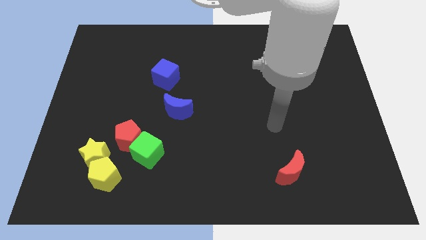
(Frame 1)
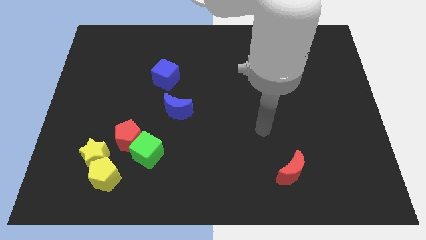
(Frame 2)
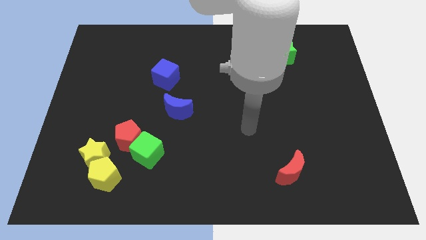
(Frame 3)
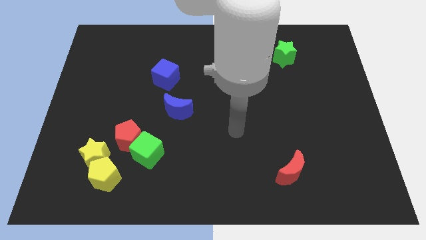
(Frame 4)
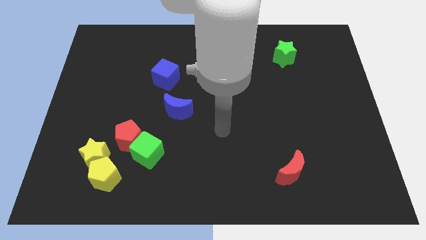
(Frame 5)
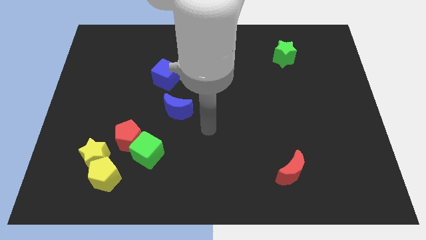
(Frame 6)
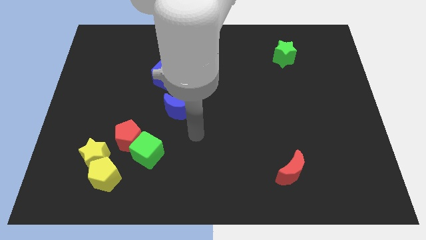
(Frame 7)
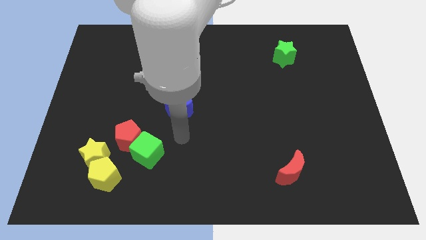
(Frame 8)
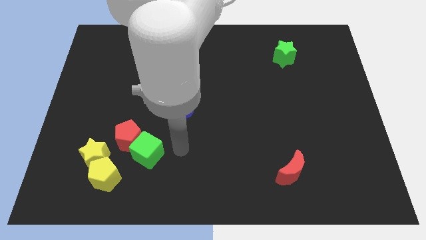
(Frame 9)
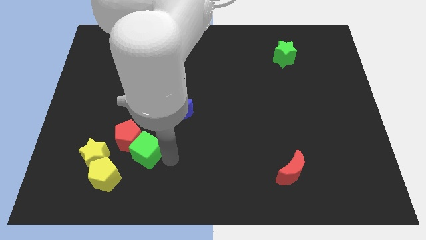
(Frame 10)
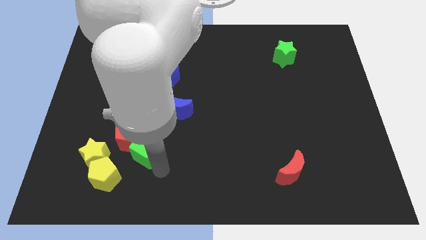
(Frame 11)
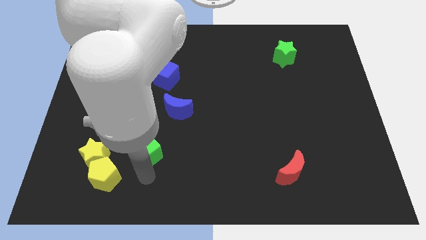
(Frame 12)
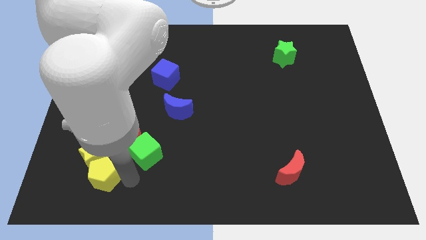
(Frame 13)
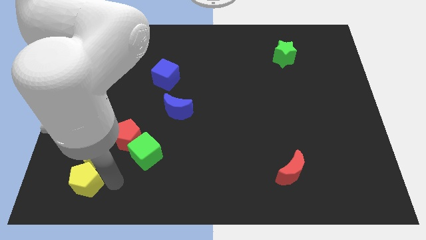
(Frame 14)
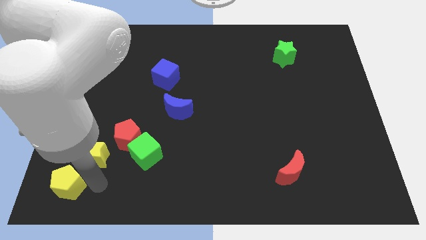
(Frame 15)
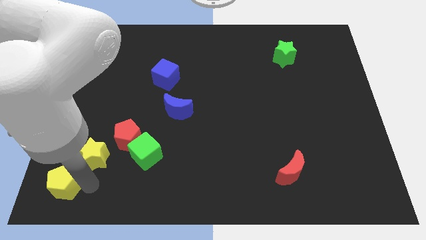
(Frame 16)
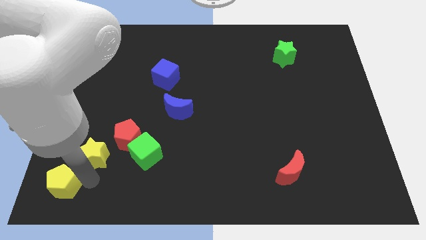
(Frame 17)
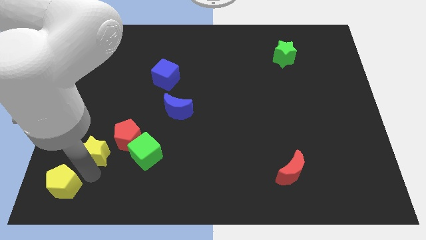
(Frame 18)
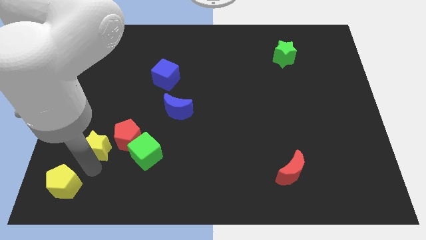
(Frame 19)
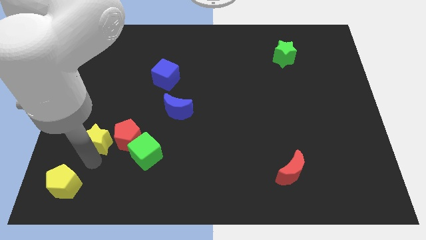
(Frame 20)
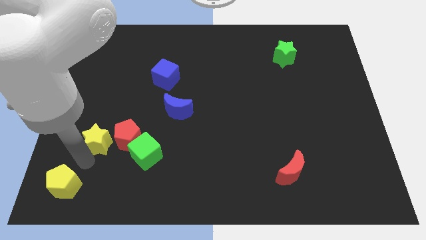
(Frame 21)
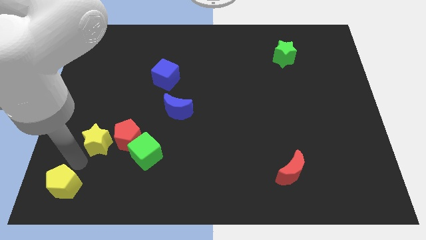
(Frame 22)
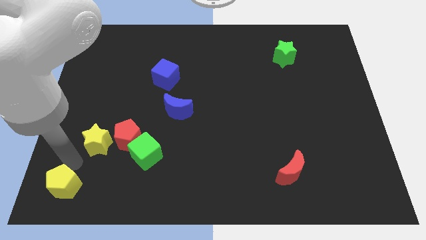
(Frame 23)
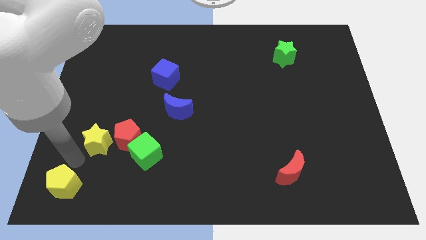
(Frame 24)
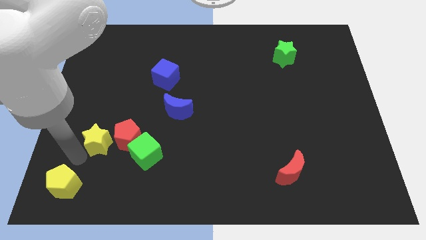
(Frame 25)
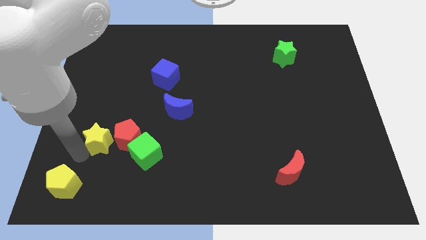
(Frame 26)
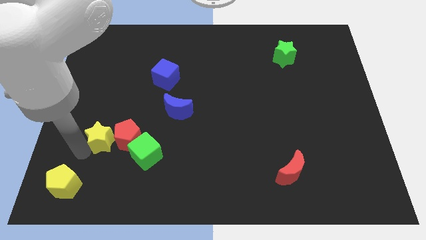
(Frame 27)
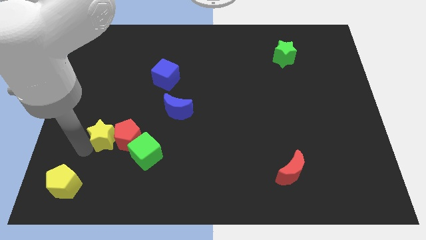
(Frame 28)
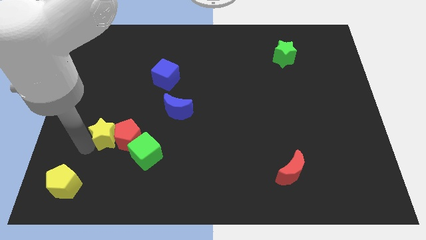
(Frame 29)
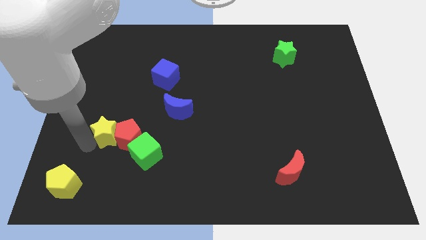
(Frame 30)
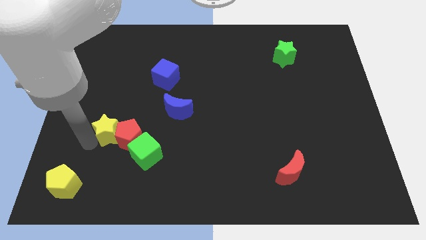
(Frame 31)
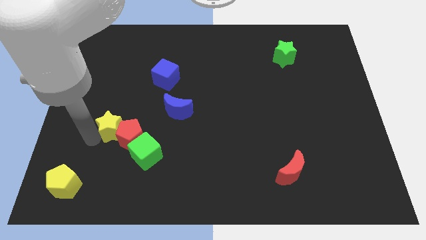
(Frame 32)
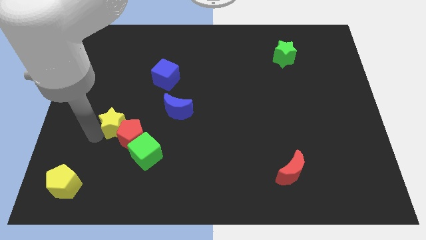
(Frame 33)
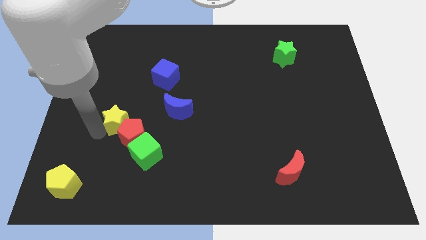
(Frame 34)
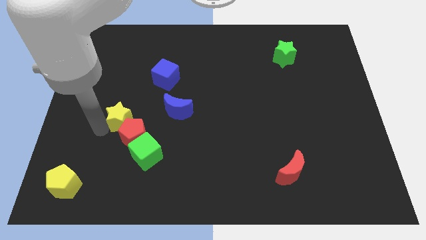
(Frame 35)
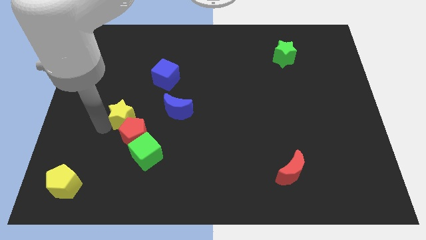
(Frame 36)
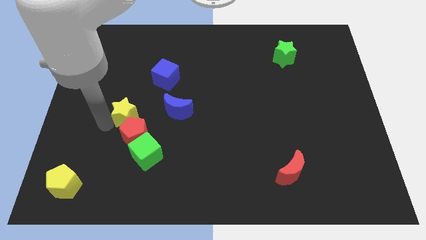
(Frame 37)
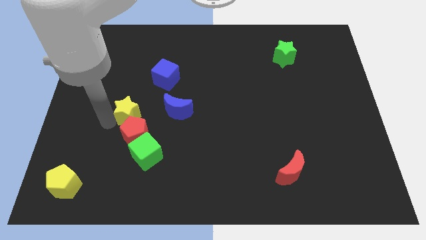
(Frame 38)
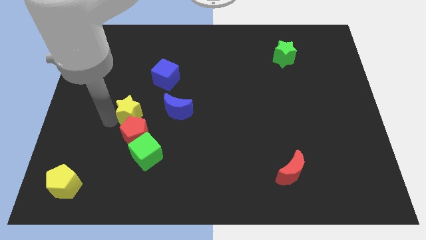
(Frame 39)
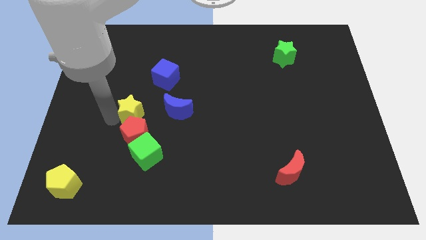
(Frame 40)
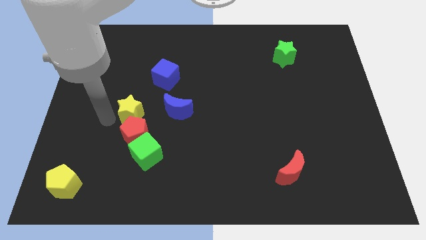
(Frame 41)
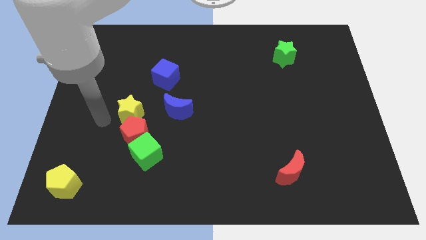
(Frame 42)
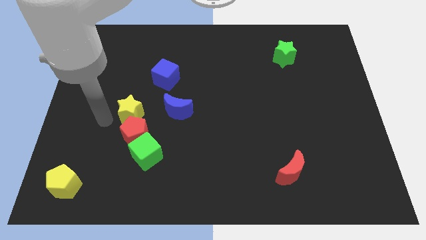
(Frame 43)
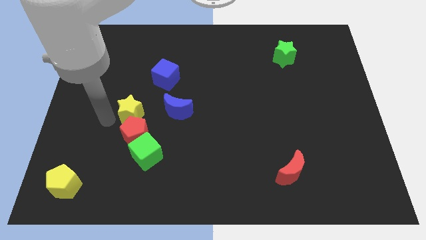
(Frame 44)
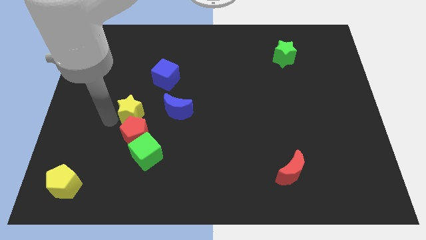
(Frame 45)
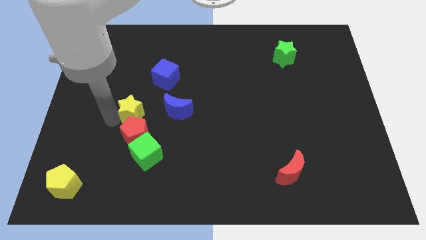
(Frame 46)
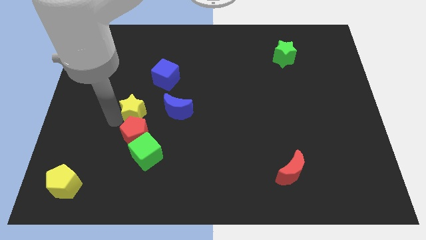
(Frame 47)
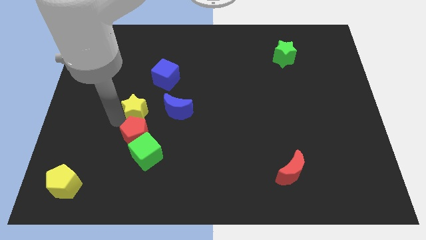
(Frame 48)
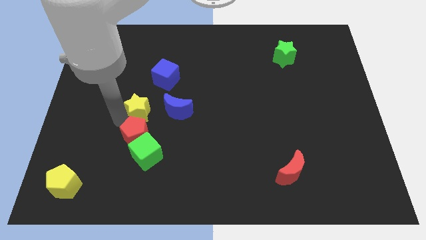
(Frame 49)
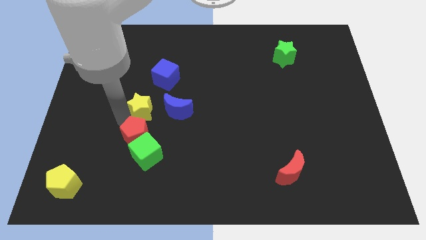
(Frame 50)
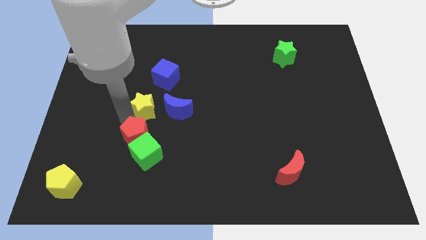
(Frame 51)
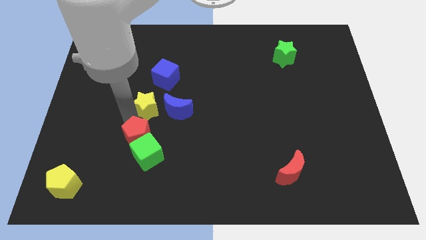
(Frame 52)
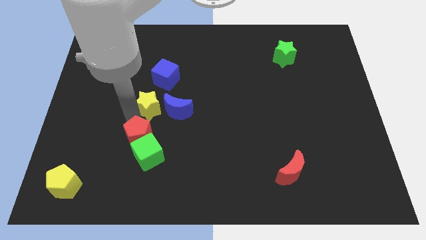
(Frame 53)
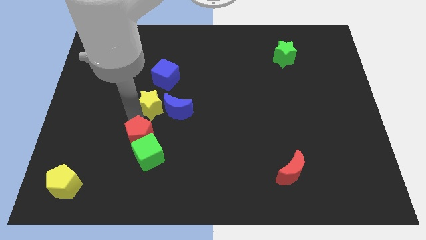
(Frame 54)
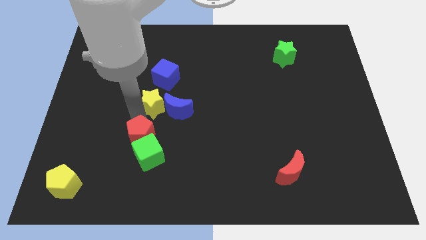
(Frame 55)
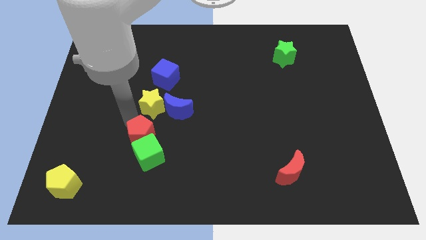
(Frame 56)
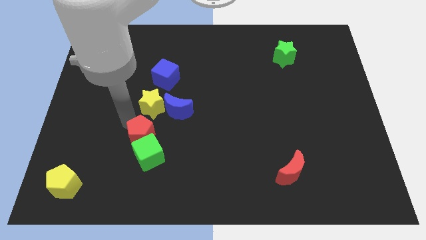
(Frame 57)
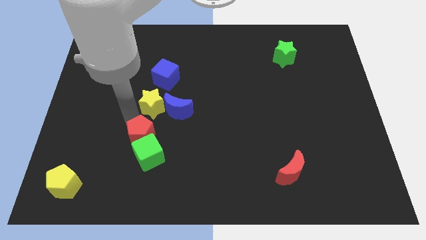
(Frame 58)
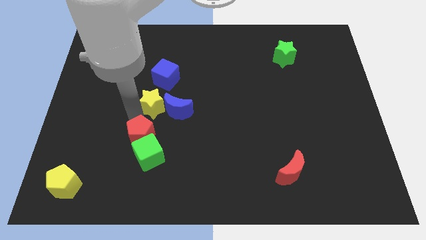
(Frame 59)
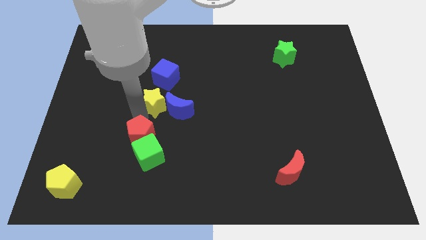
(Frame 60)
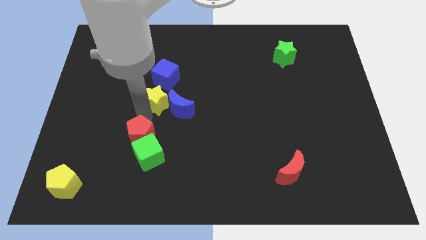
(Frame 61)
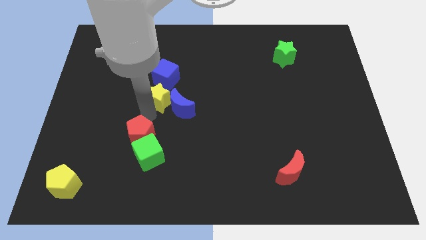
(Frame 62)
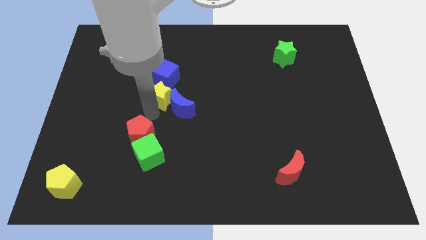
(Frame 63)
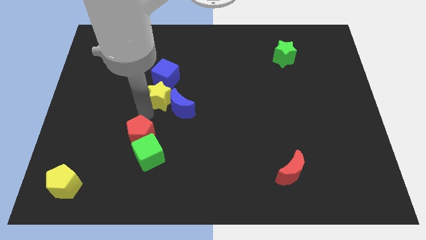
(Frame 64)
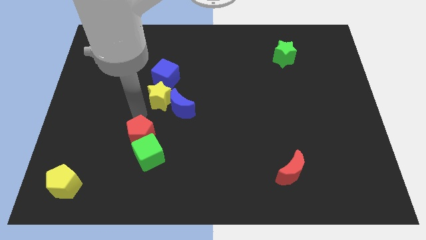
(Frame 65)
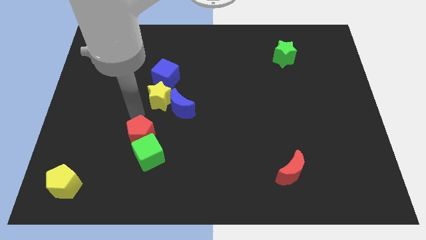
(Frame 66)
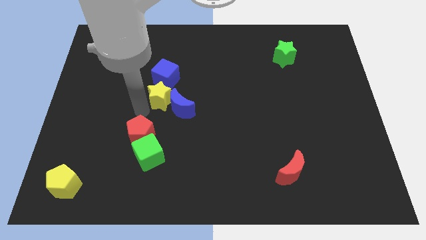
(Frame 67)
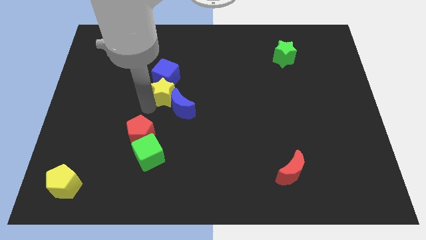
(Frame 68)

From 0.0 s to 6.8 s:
push the yellow star upwards and right

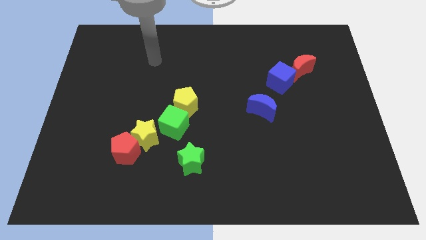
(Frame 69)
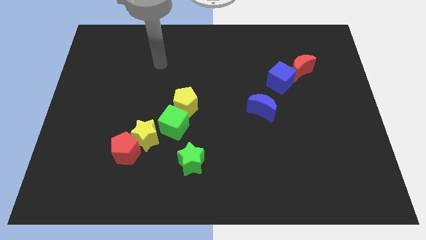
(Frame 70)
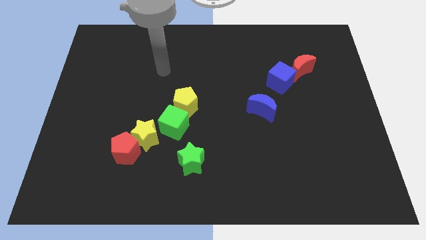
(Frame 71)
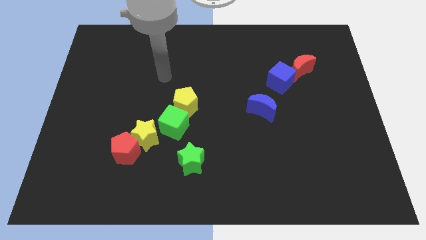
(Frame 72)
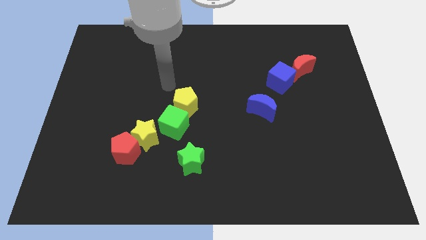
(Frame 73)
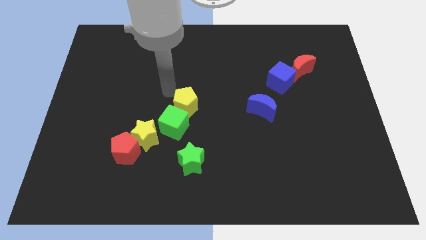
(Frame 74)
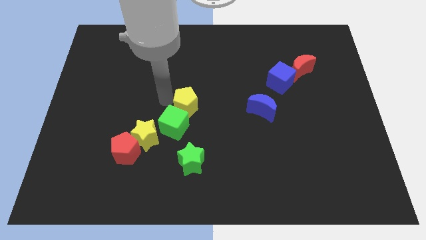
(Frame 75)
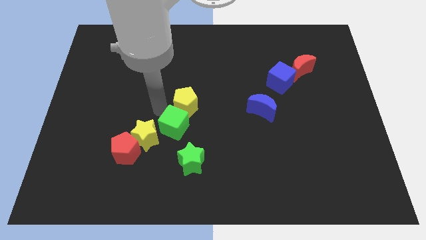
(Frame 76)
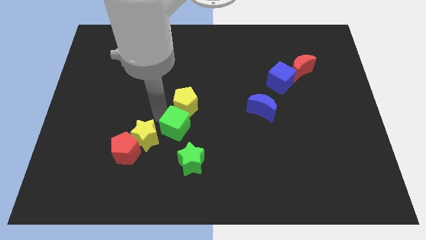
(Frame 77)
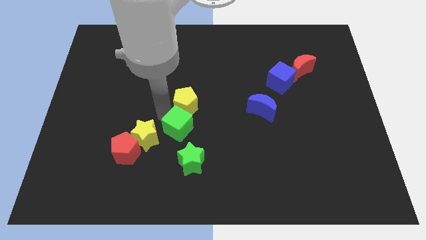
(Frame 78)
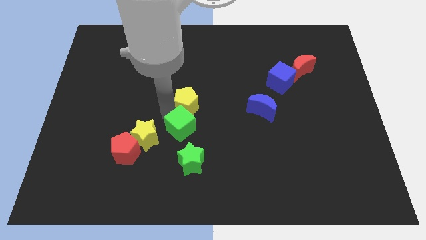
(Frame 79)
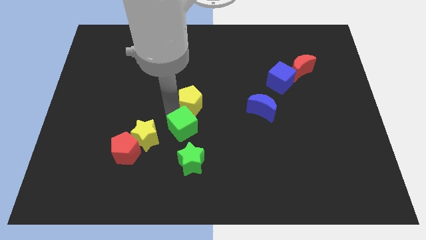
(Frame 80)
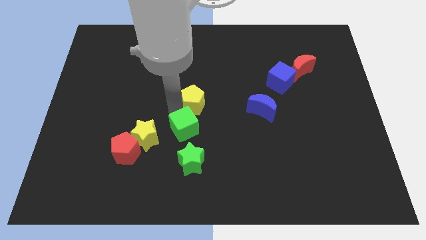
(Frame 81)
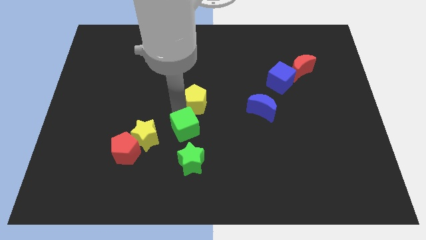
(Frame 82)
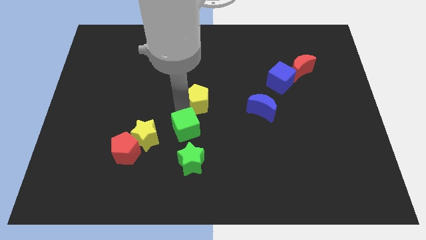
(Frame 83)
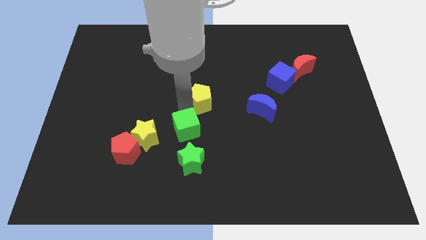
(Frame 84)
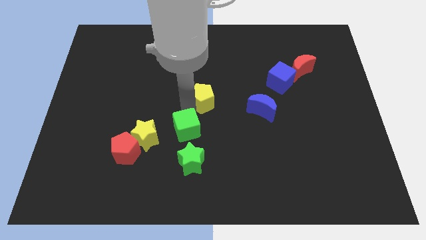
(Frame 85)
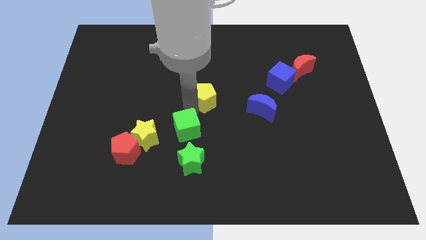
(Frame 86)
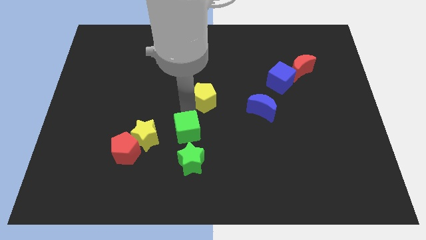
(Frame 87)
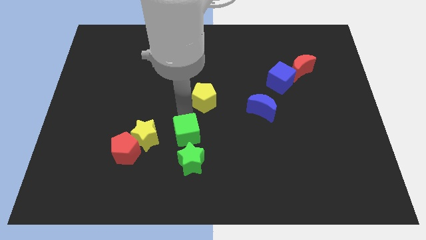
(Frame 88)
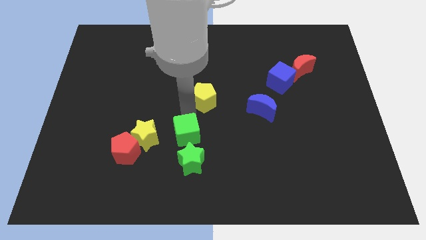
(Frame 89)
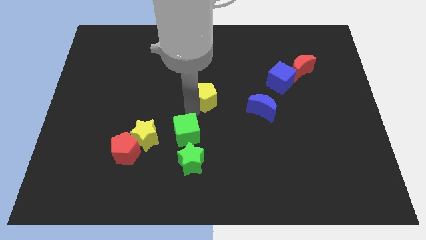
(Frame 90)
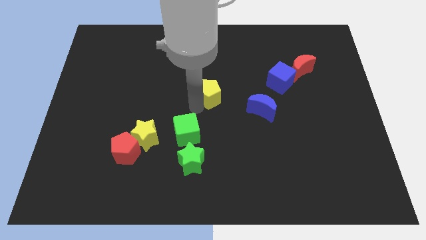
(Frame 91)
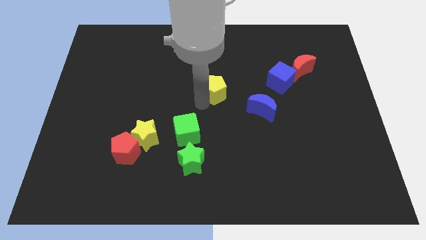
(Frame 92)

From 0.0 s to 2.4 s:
move the yellow pentagon somewhat up and right diagonally
